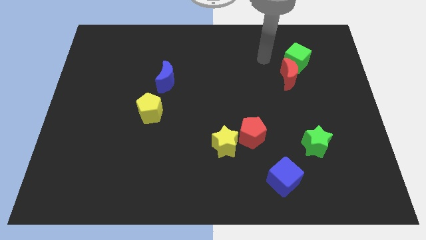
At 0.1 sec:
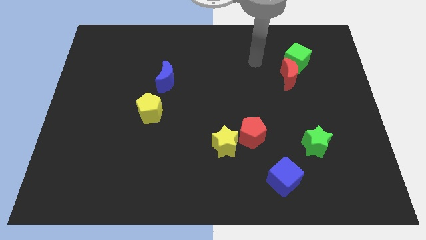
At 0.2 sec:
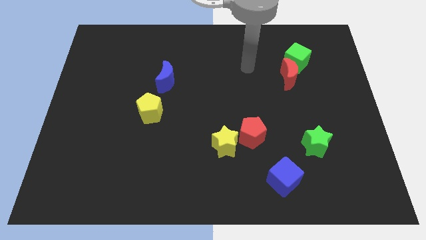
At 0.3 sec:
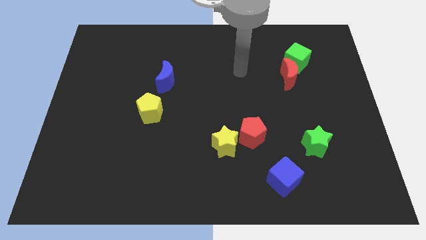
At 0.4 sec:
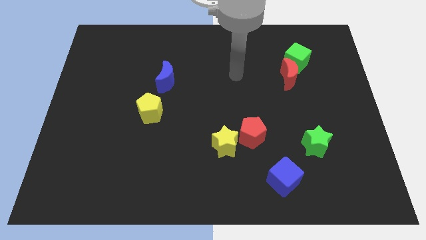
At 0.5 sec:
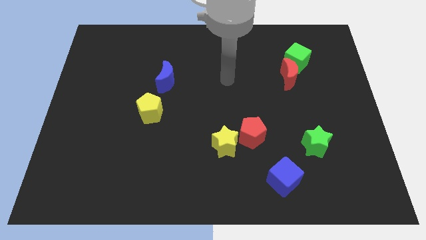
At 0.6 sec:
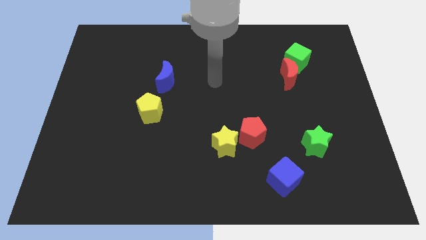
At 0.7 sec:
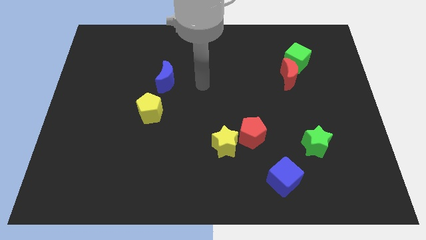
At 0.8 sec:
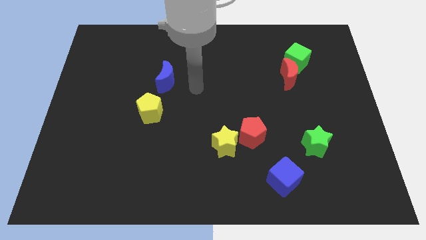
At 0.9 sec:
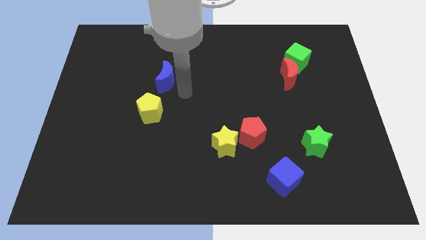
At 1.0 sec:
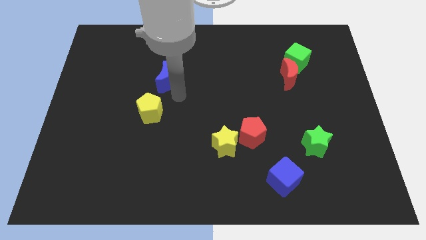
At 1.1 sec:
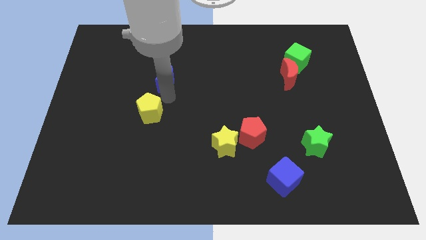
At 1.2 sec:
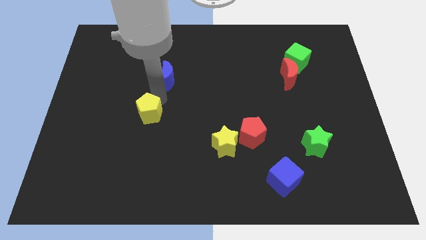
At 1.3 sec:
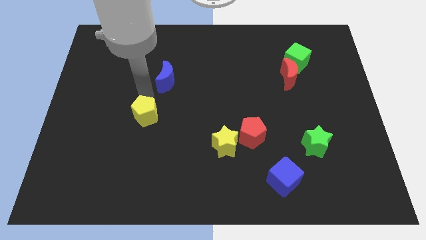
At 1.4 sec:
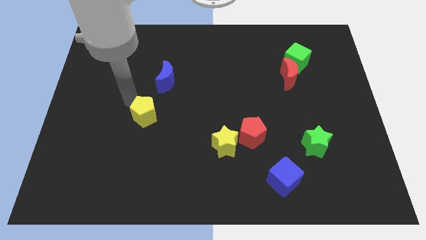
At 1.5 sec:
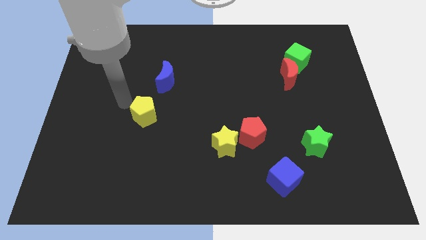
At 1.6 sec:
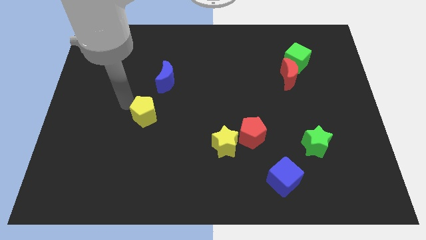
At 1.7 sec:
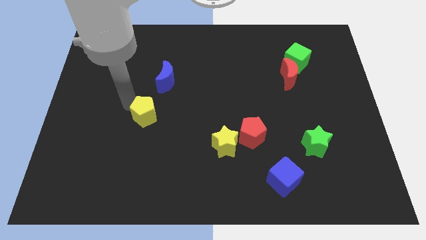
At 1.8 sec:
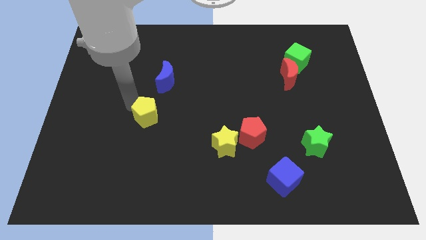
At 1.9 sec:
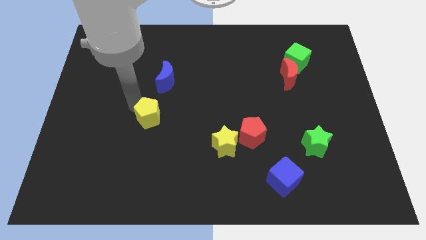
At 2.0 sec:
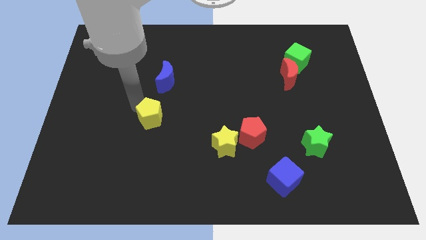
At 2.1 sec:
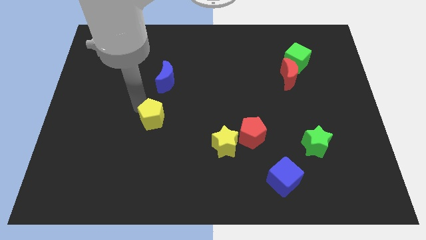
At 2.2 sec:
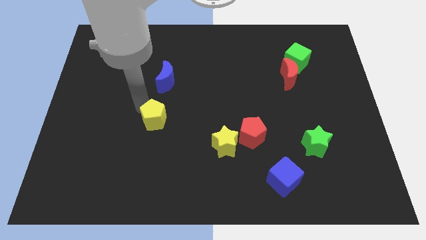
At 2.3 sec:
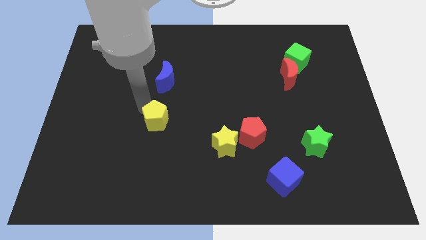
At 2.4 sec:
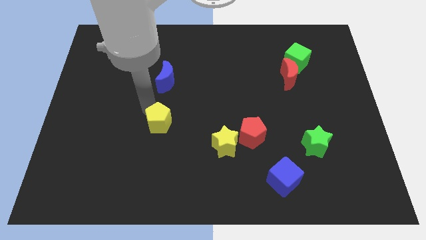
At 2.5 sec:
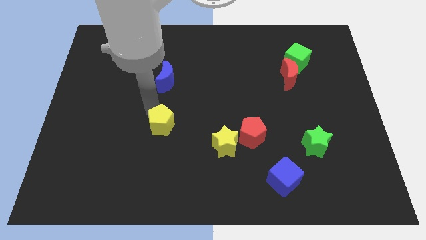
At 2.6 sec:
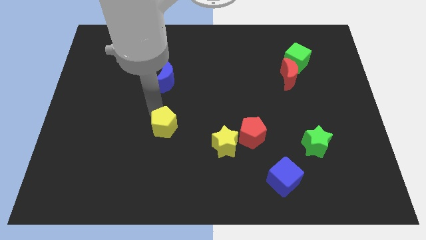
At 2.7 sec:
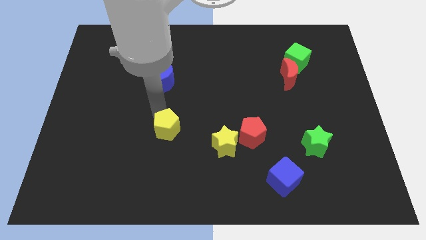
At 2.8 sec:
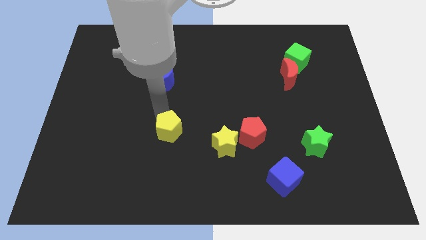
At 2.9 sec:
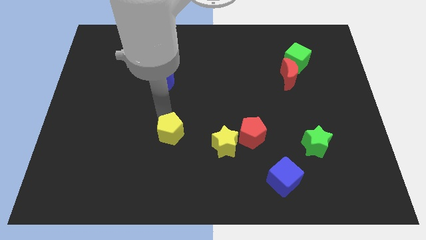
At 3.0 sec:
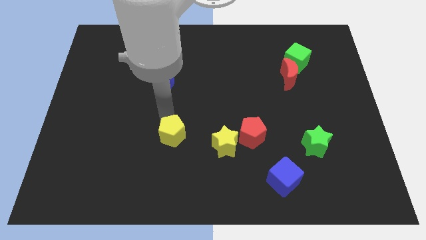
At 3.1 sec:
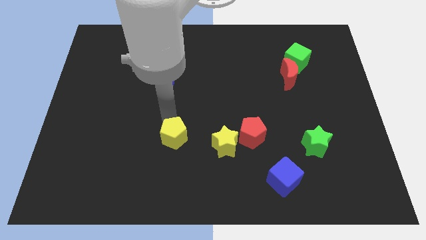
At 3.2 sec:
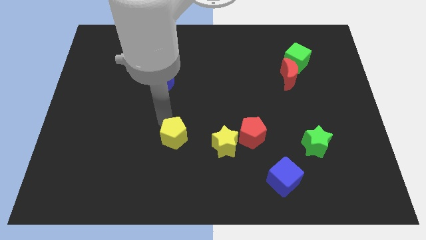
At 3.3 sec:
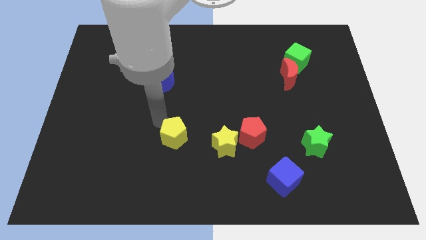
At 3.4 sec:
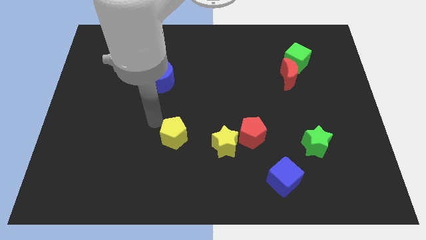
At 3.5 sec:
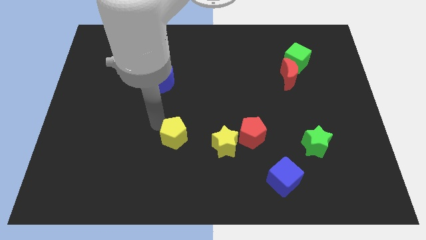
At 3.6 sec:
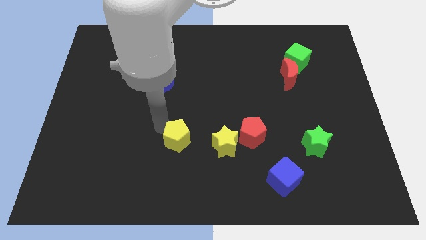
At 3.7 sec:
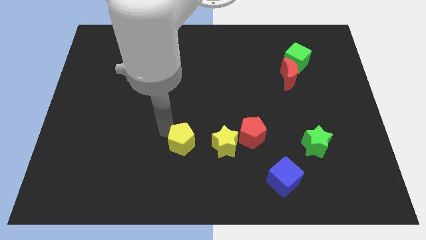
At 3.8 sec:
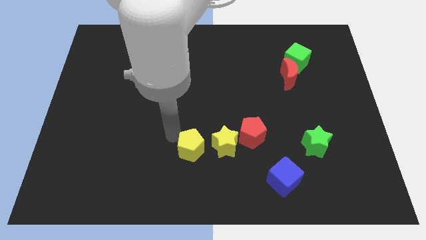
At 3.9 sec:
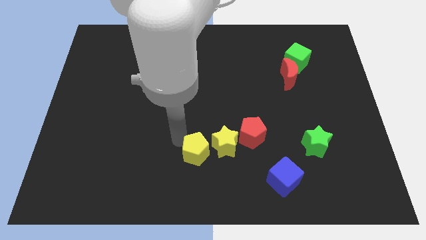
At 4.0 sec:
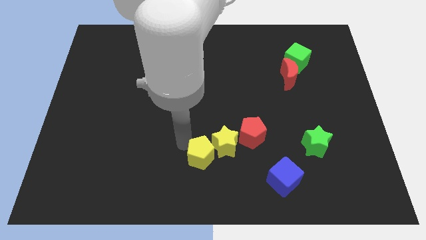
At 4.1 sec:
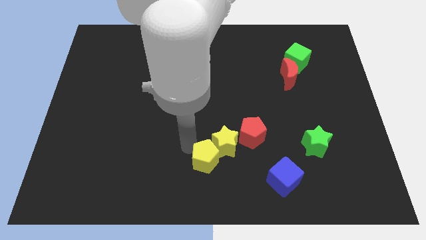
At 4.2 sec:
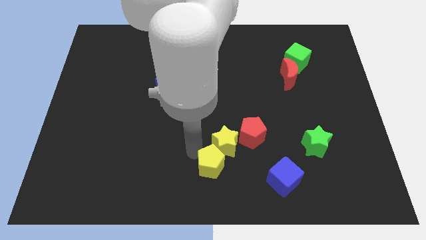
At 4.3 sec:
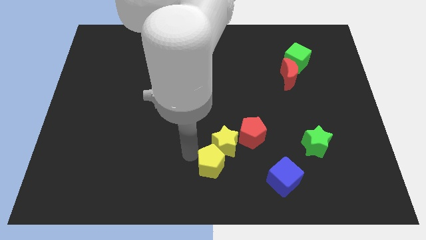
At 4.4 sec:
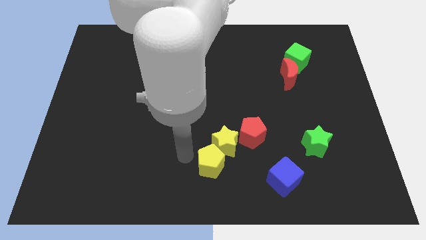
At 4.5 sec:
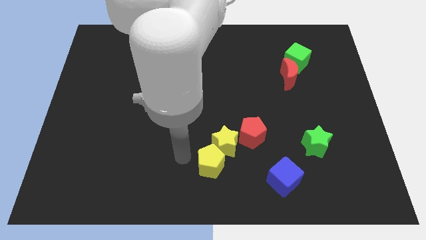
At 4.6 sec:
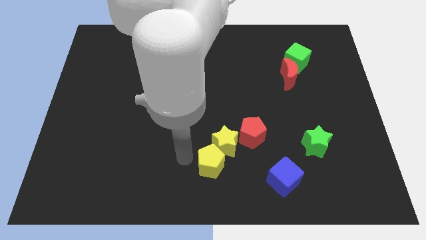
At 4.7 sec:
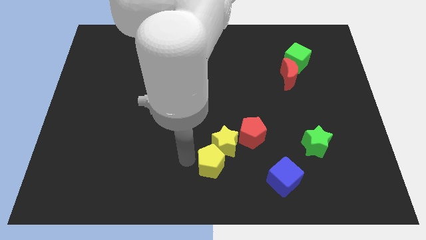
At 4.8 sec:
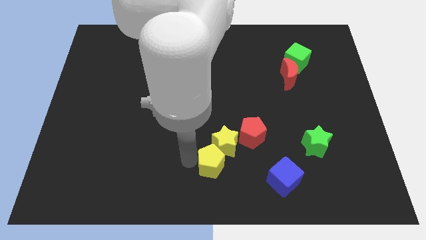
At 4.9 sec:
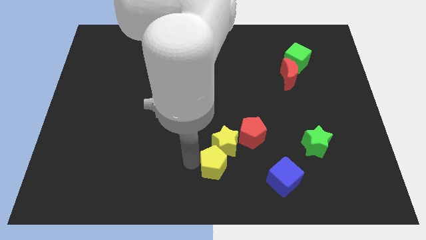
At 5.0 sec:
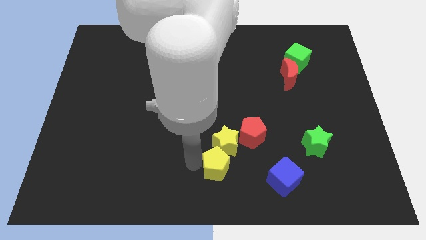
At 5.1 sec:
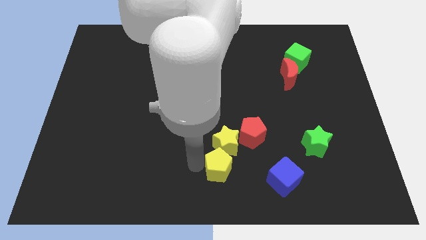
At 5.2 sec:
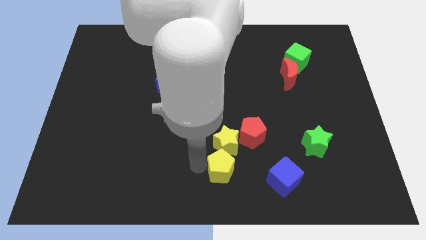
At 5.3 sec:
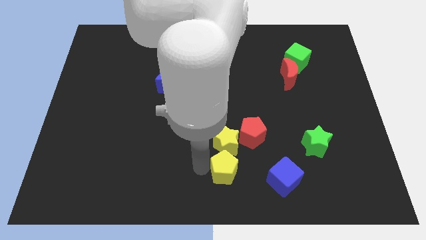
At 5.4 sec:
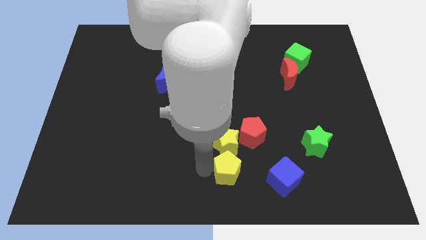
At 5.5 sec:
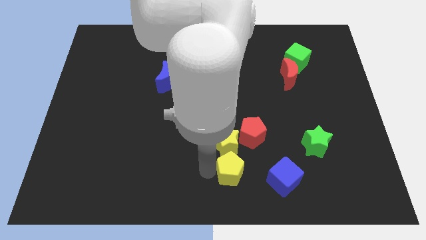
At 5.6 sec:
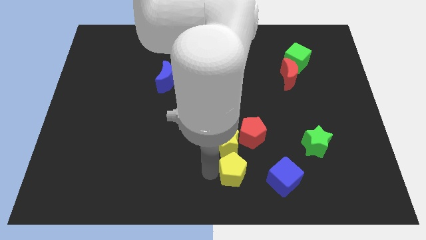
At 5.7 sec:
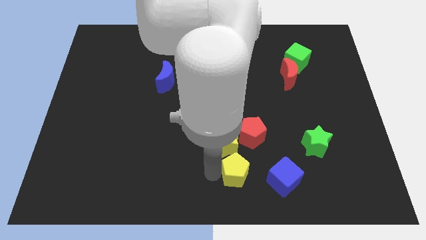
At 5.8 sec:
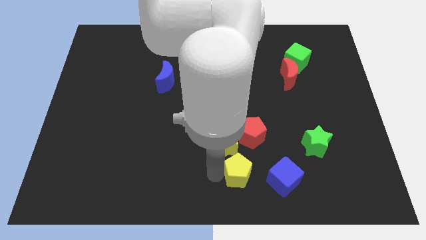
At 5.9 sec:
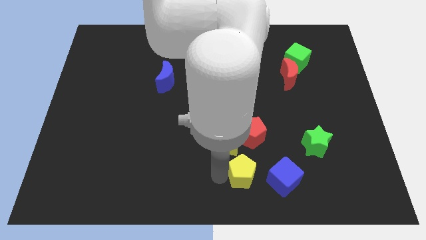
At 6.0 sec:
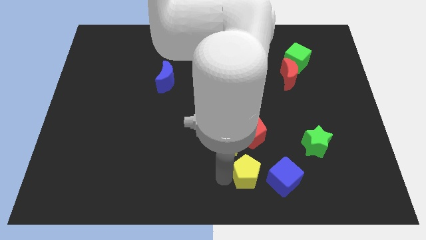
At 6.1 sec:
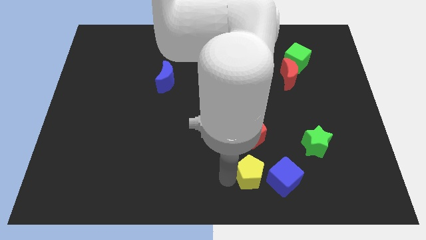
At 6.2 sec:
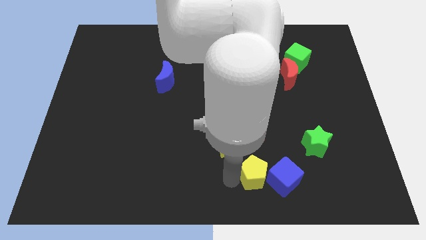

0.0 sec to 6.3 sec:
put the yellow pentagon close to the blue cube

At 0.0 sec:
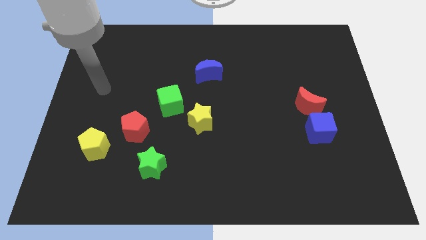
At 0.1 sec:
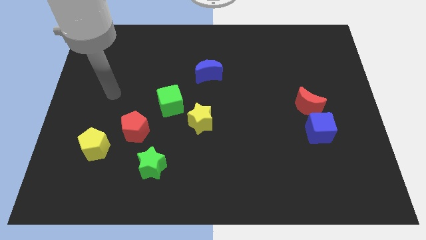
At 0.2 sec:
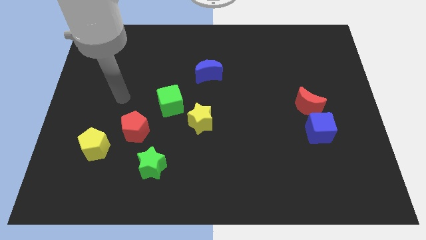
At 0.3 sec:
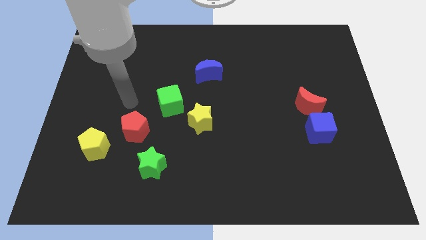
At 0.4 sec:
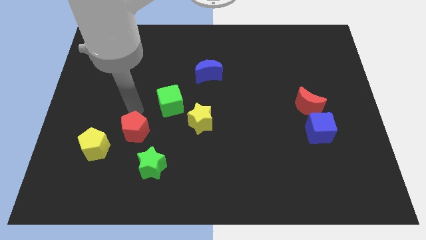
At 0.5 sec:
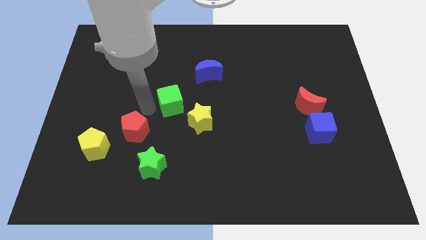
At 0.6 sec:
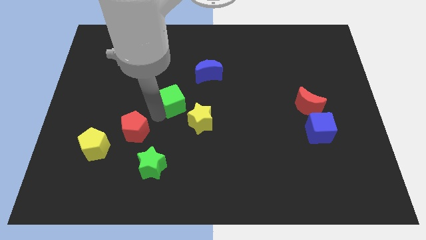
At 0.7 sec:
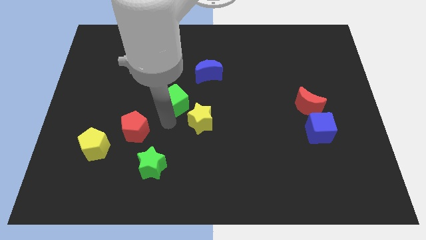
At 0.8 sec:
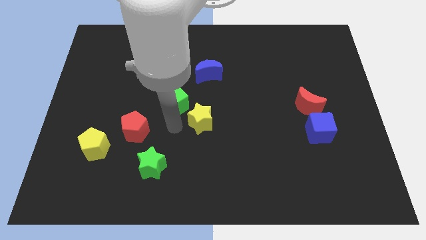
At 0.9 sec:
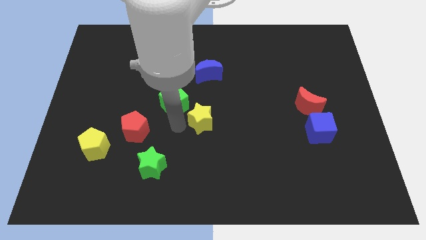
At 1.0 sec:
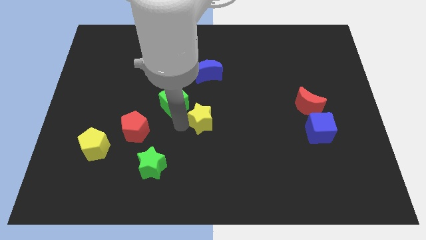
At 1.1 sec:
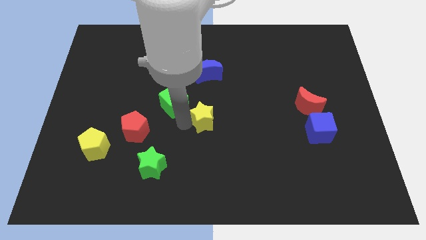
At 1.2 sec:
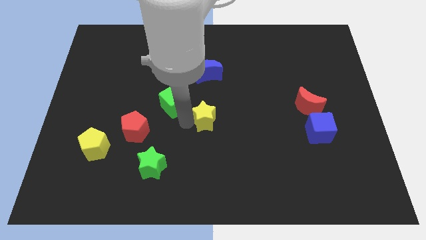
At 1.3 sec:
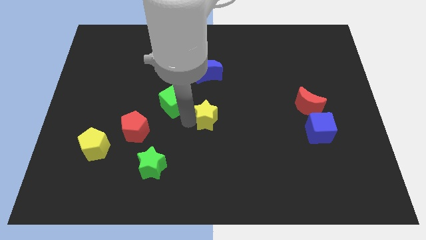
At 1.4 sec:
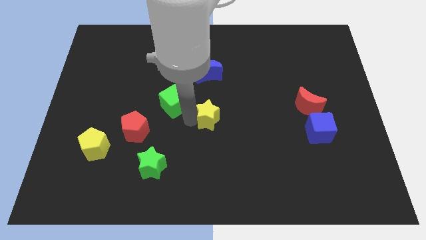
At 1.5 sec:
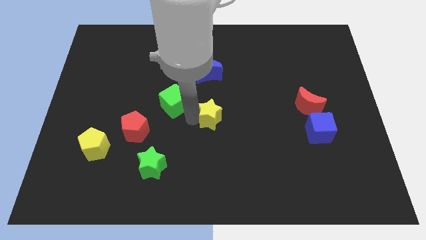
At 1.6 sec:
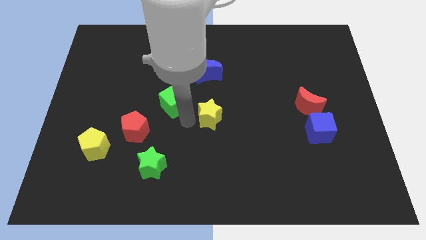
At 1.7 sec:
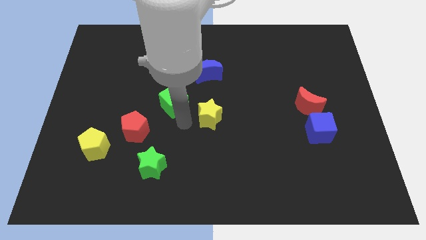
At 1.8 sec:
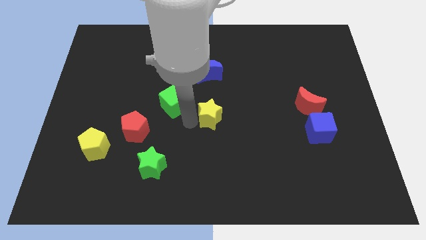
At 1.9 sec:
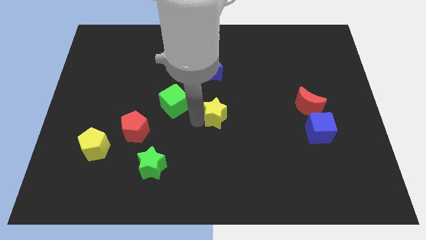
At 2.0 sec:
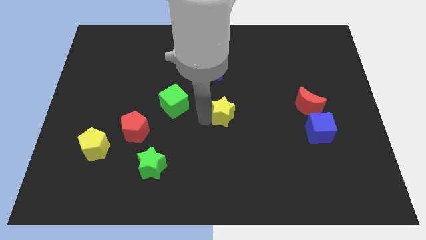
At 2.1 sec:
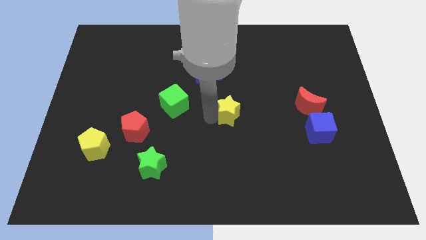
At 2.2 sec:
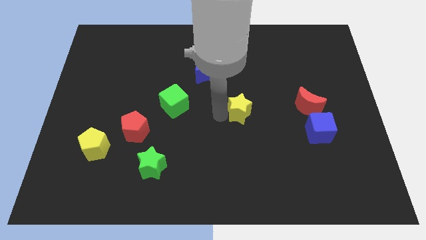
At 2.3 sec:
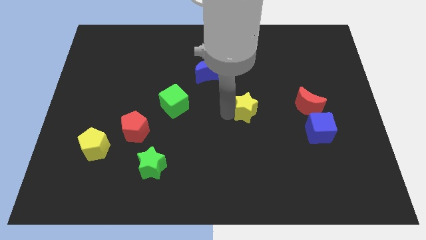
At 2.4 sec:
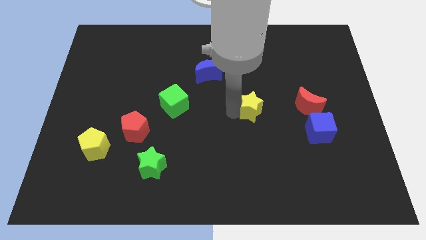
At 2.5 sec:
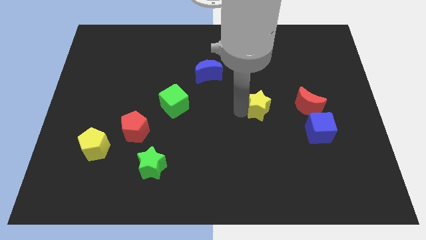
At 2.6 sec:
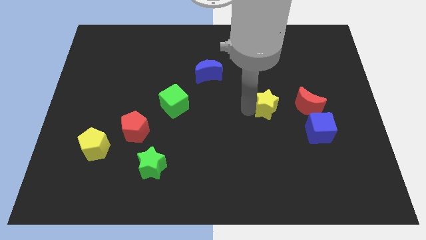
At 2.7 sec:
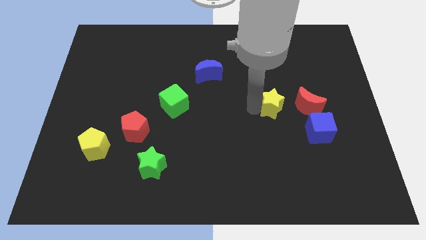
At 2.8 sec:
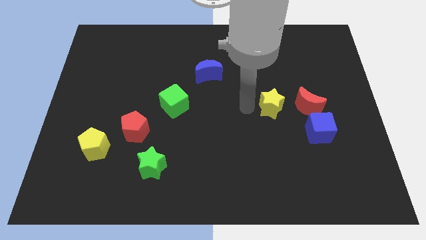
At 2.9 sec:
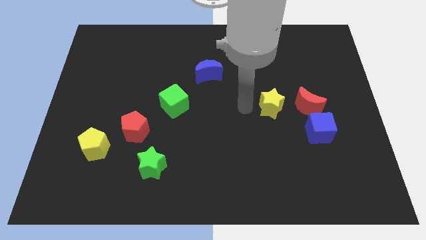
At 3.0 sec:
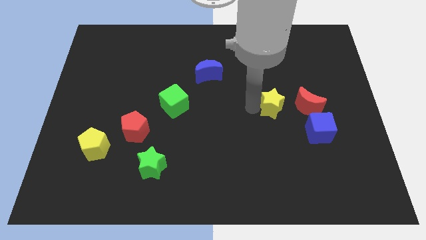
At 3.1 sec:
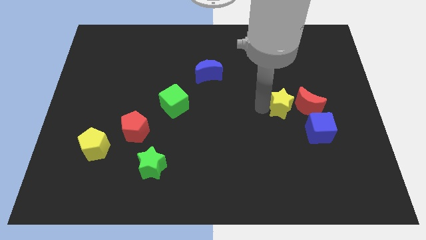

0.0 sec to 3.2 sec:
slide the yellow star to the red moon
